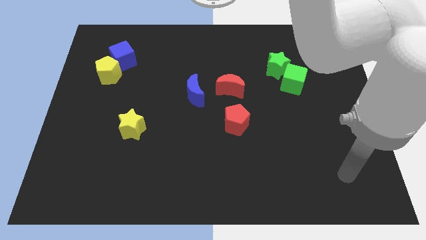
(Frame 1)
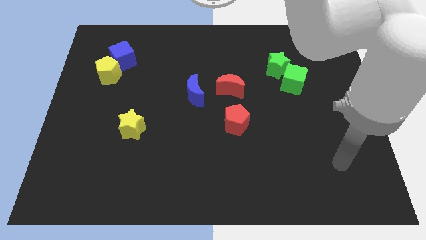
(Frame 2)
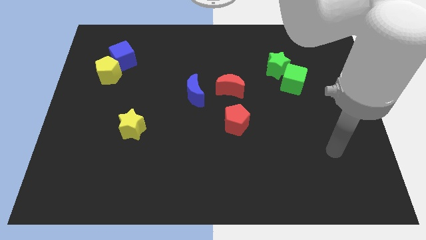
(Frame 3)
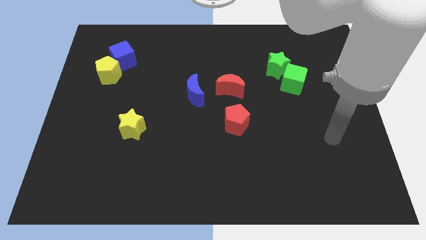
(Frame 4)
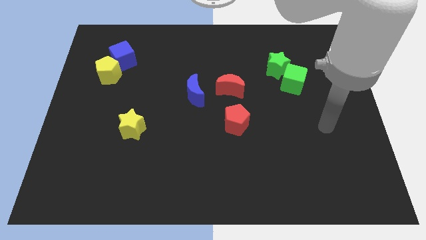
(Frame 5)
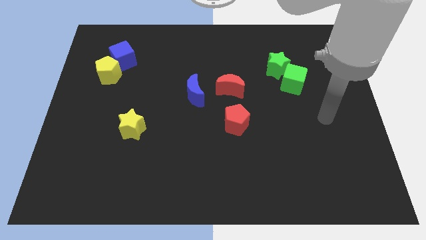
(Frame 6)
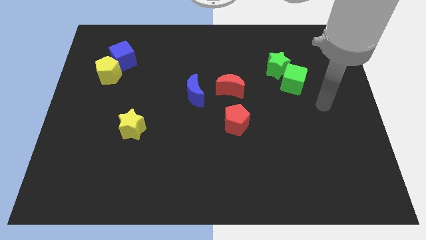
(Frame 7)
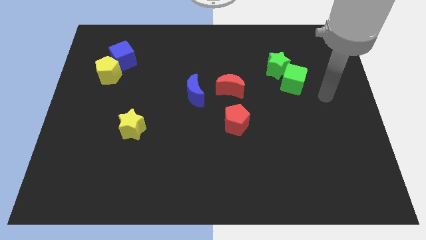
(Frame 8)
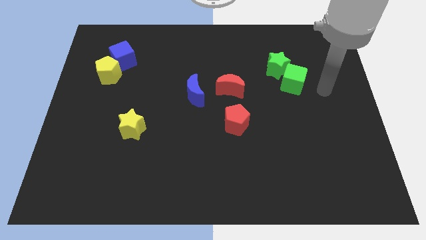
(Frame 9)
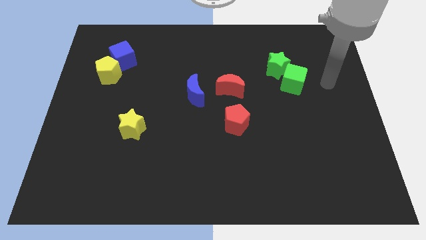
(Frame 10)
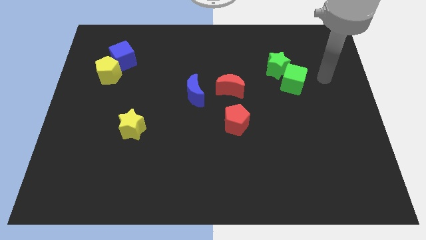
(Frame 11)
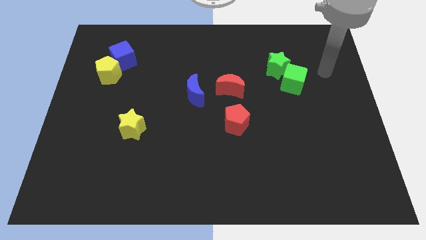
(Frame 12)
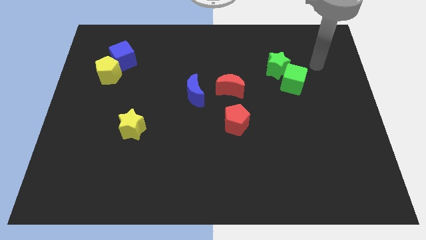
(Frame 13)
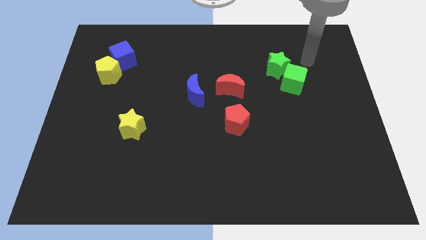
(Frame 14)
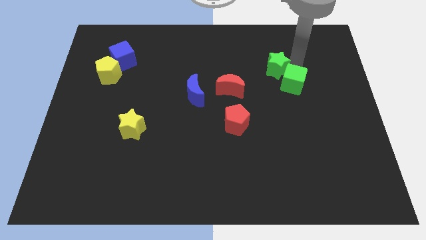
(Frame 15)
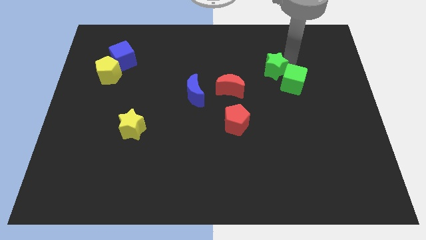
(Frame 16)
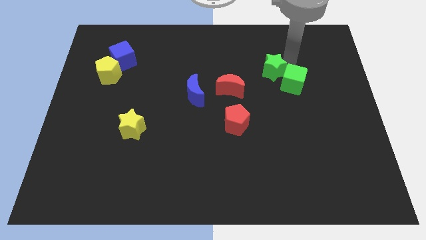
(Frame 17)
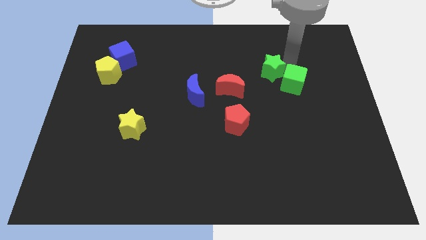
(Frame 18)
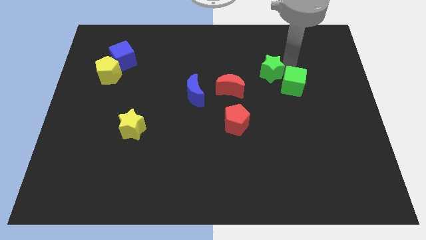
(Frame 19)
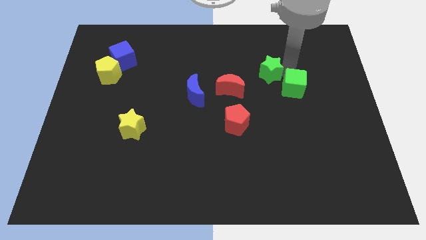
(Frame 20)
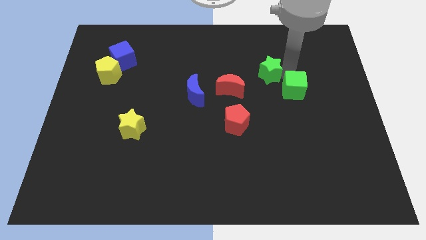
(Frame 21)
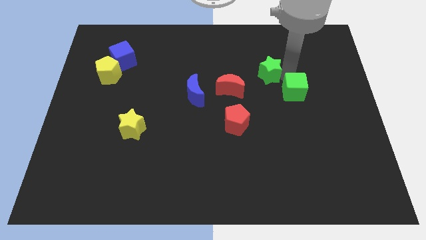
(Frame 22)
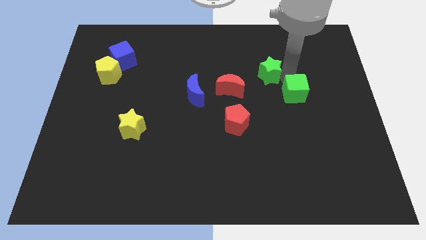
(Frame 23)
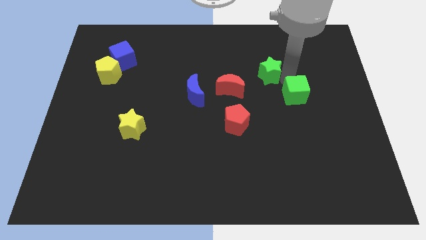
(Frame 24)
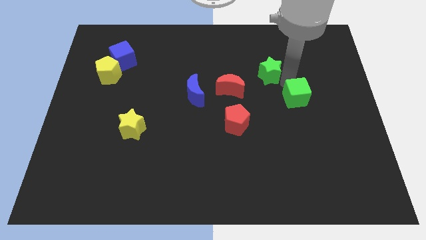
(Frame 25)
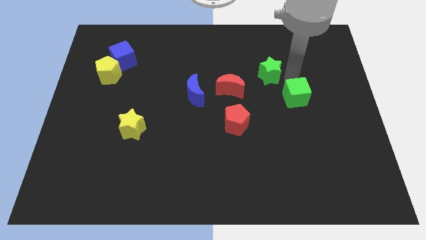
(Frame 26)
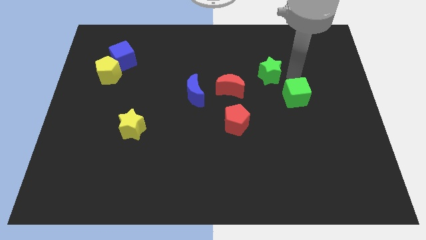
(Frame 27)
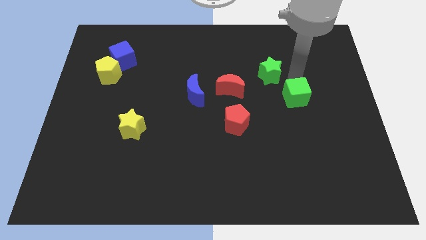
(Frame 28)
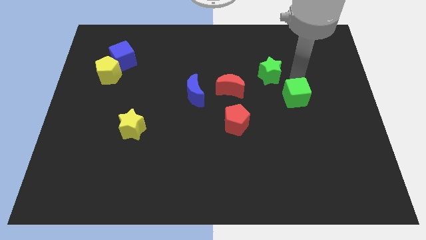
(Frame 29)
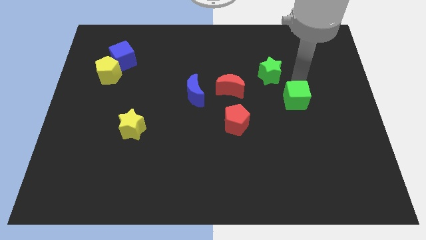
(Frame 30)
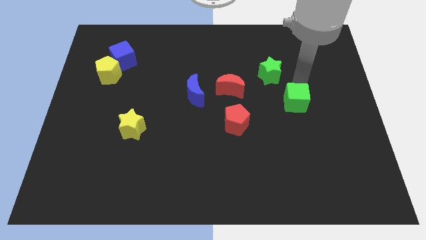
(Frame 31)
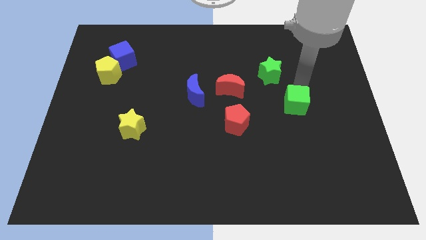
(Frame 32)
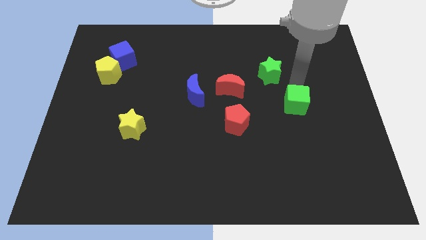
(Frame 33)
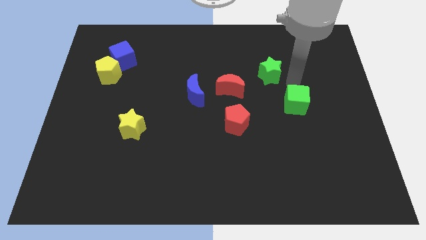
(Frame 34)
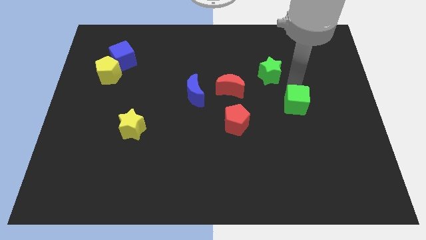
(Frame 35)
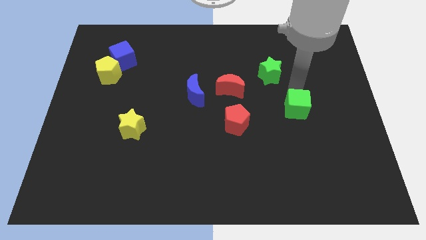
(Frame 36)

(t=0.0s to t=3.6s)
move the green cube a bit down

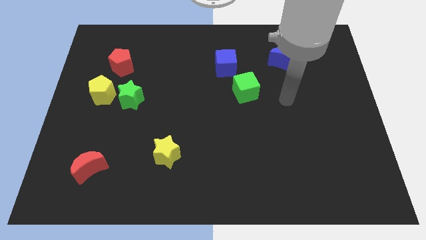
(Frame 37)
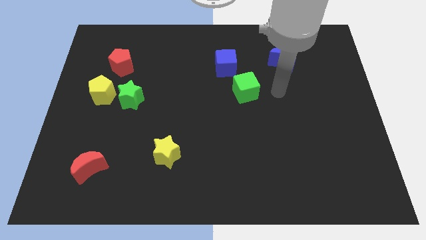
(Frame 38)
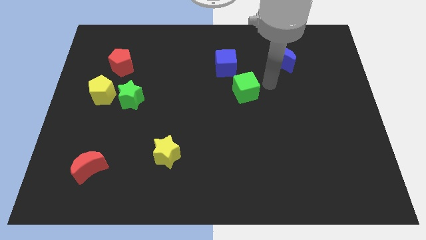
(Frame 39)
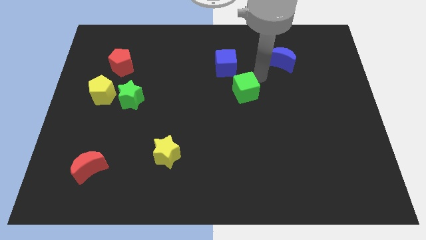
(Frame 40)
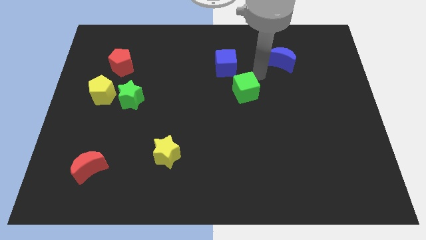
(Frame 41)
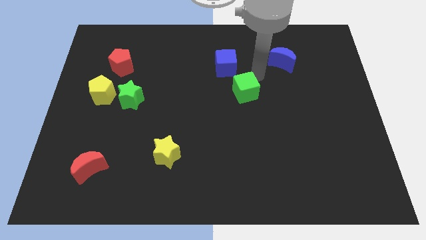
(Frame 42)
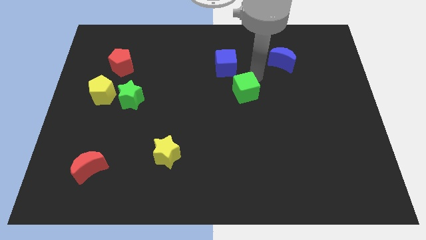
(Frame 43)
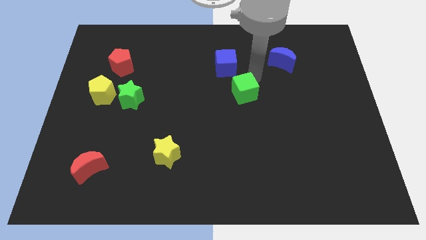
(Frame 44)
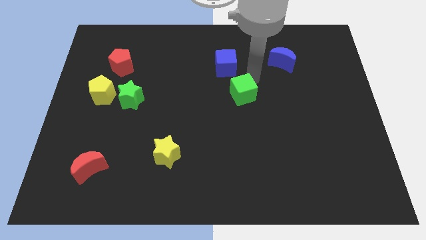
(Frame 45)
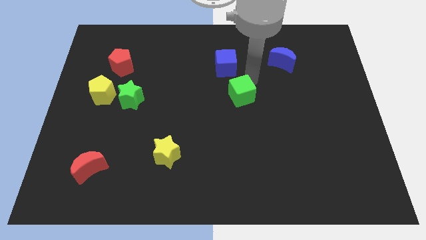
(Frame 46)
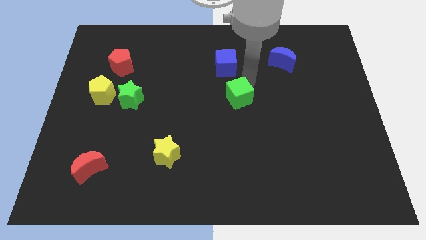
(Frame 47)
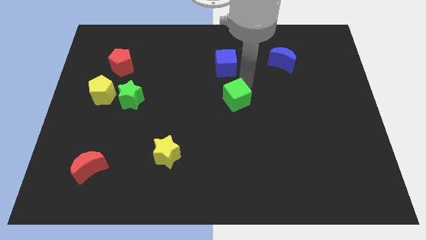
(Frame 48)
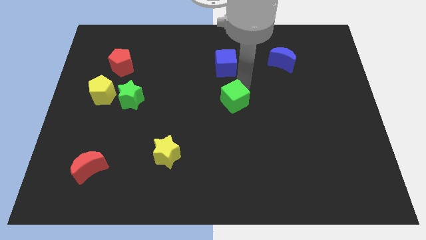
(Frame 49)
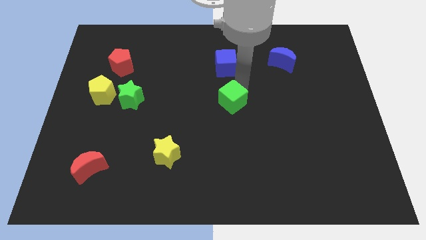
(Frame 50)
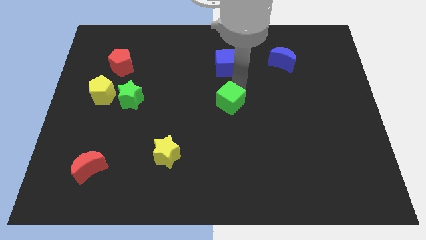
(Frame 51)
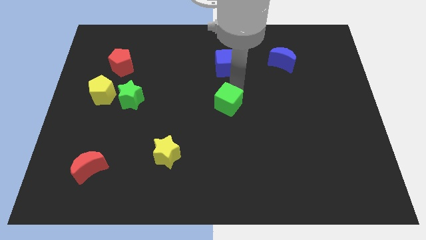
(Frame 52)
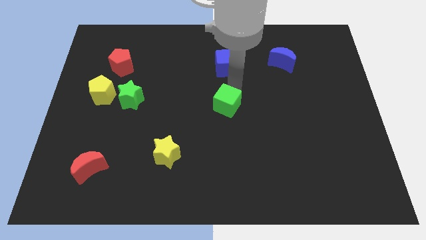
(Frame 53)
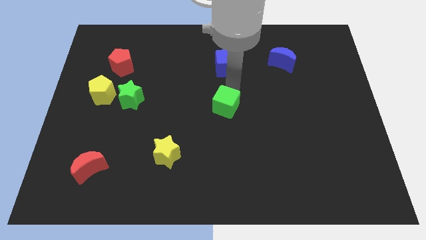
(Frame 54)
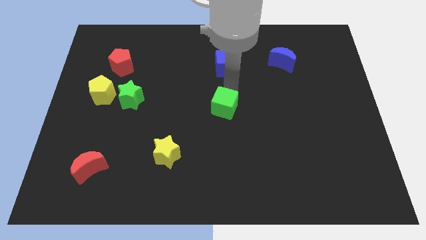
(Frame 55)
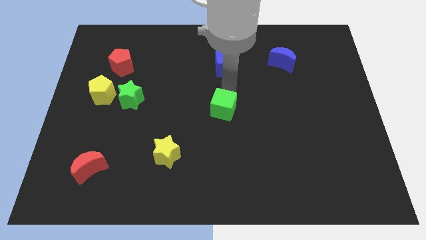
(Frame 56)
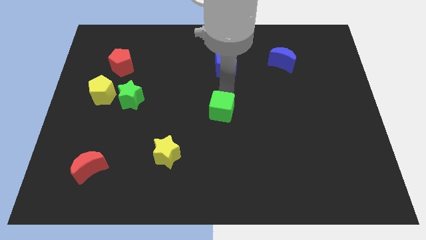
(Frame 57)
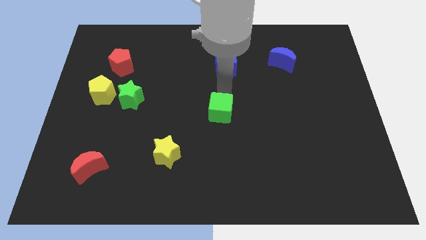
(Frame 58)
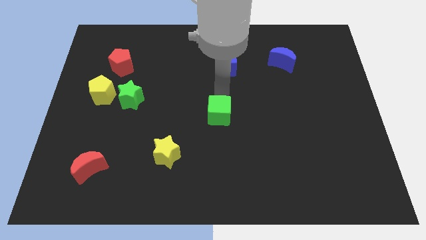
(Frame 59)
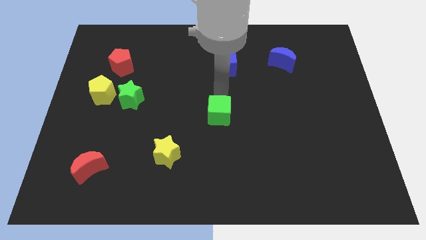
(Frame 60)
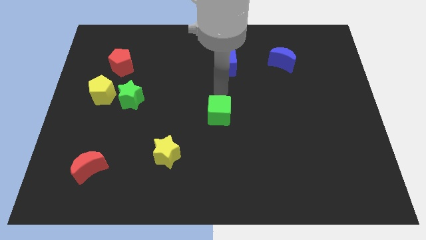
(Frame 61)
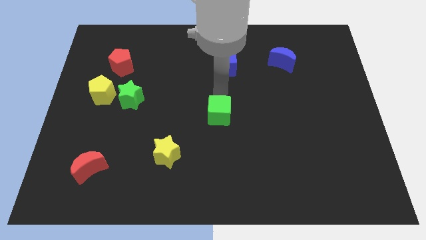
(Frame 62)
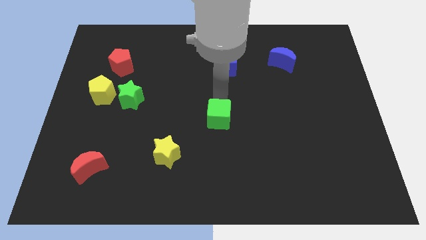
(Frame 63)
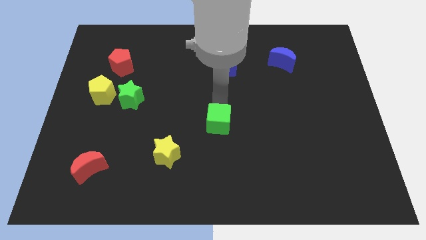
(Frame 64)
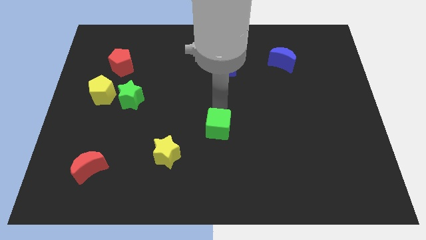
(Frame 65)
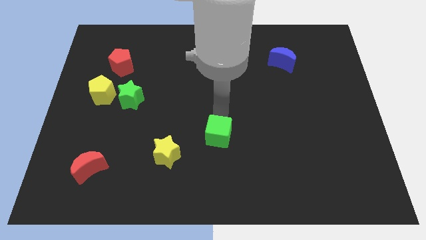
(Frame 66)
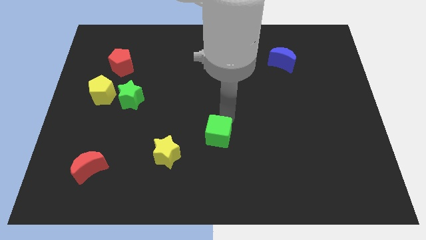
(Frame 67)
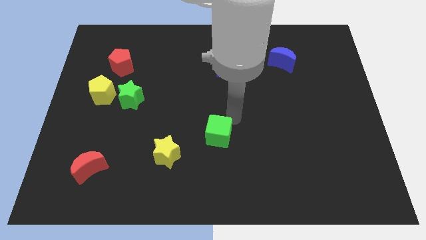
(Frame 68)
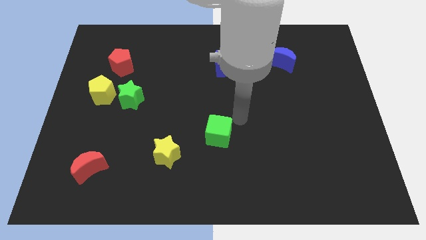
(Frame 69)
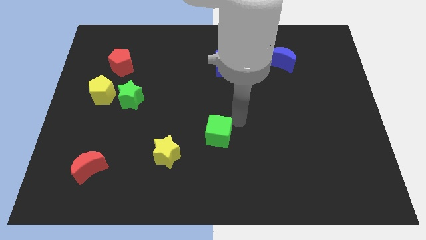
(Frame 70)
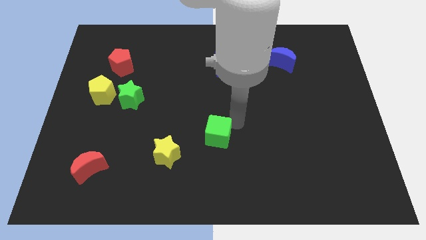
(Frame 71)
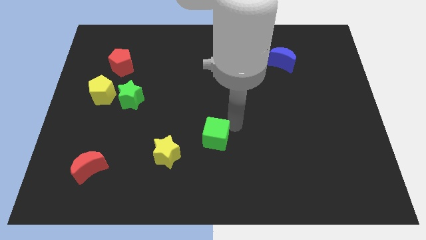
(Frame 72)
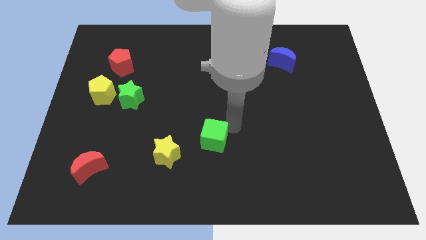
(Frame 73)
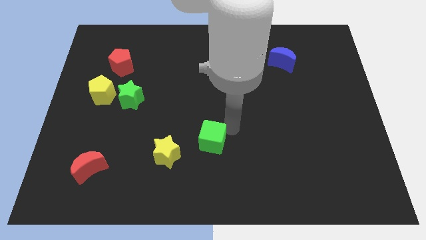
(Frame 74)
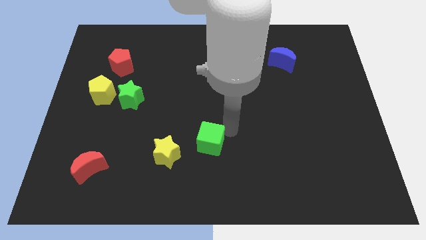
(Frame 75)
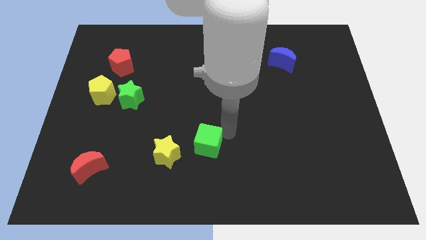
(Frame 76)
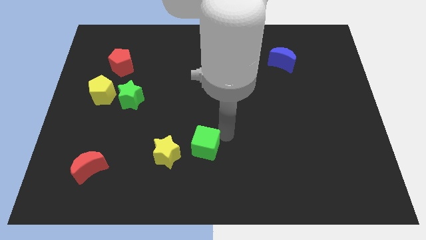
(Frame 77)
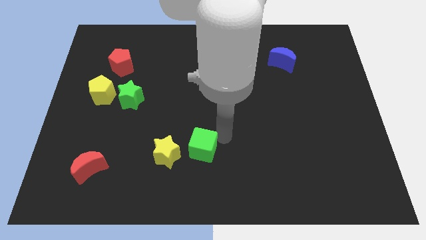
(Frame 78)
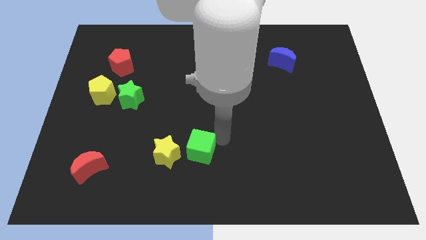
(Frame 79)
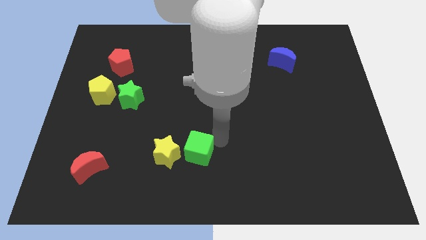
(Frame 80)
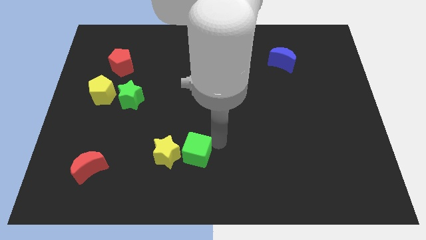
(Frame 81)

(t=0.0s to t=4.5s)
move the green cube downwards and to the left diagonally
